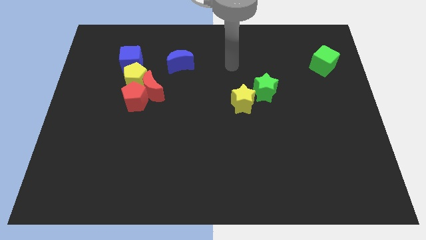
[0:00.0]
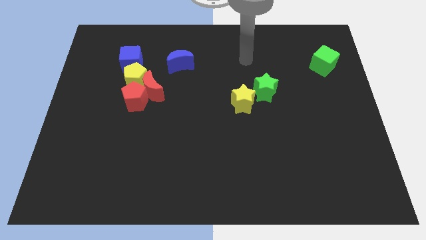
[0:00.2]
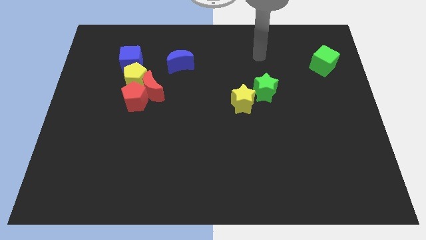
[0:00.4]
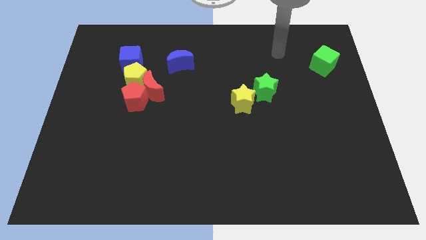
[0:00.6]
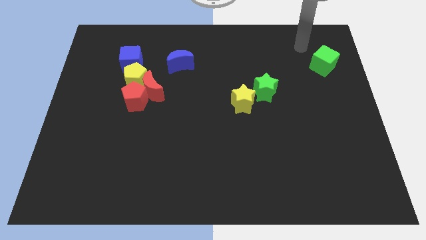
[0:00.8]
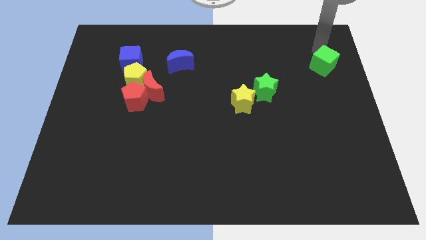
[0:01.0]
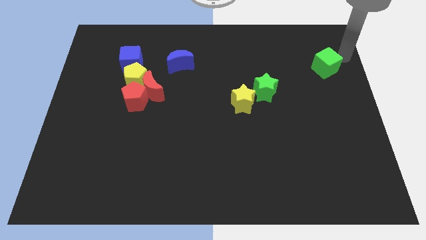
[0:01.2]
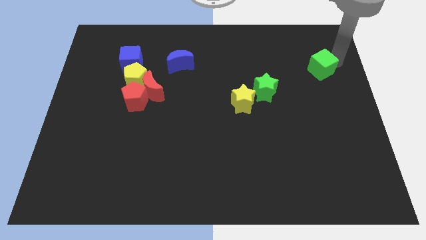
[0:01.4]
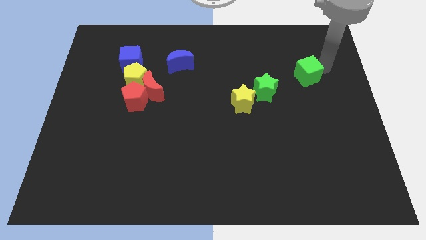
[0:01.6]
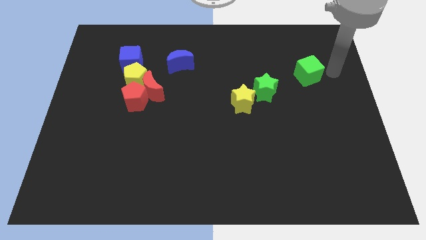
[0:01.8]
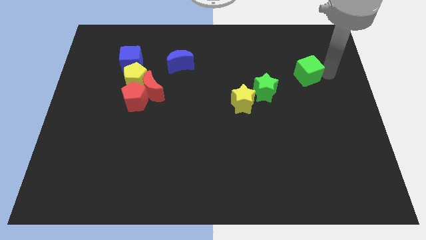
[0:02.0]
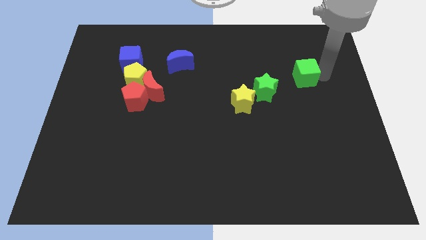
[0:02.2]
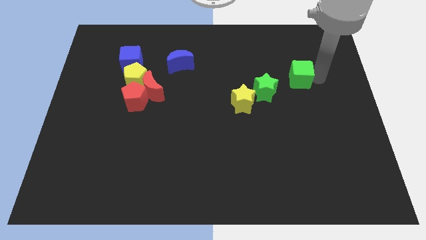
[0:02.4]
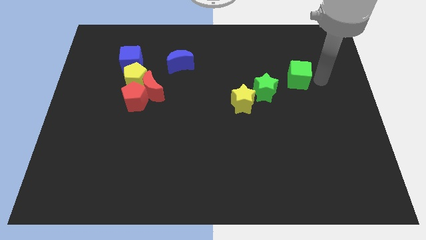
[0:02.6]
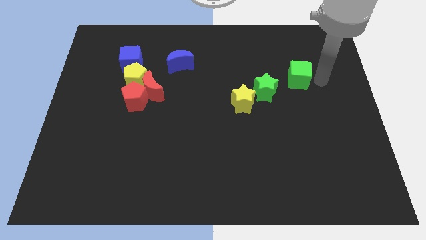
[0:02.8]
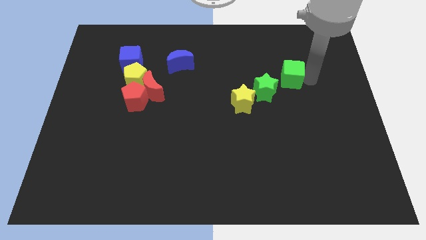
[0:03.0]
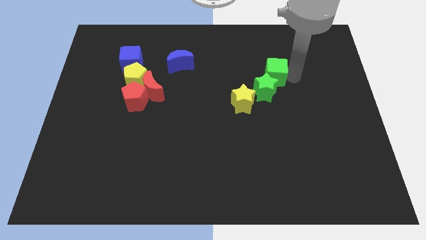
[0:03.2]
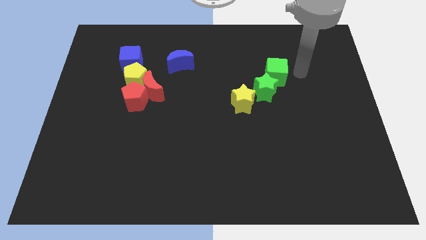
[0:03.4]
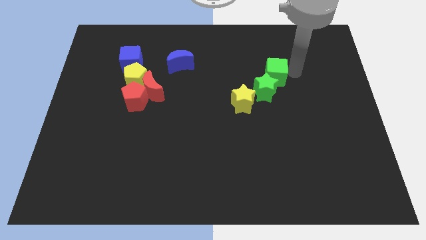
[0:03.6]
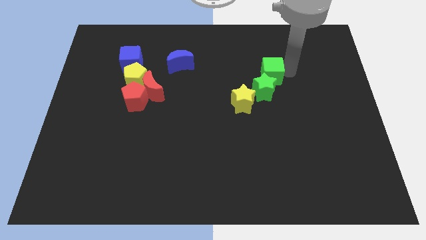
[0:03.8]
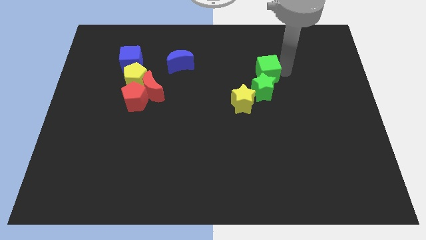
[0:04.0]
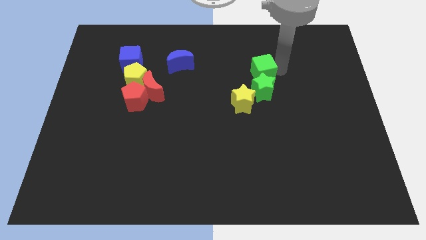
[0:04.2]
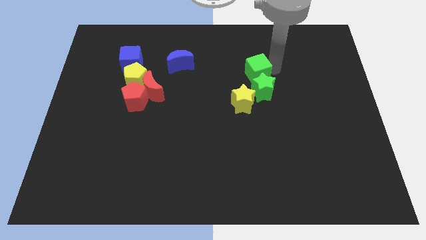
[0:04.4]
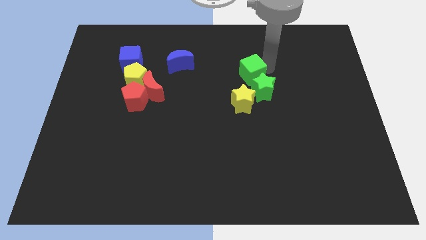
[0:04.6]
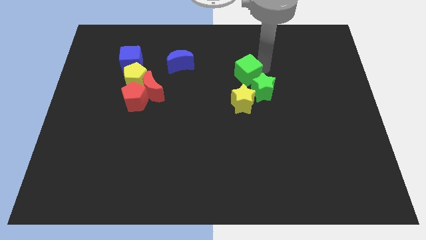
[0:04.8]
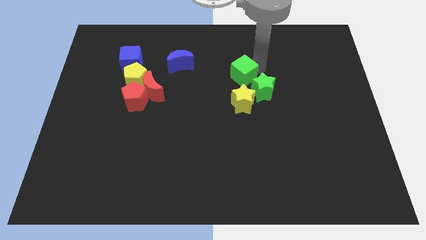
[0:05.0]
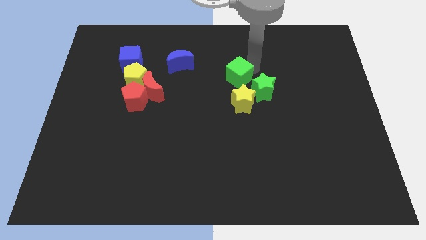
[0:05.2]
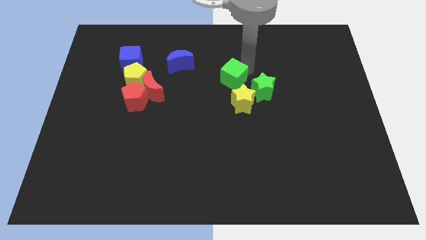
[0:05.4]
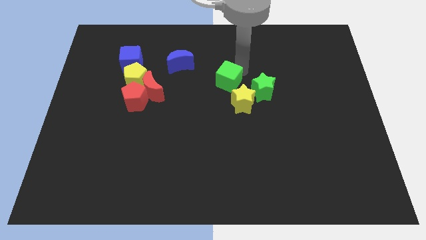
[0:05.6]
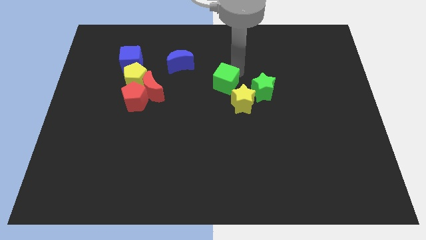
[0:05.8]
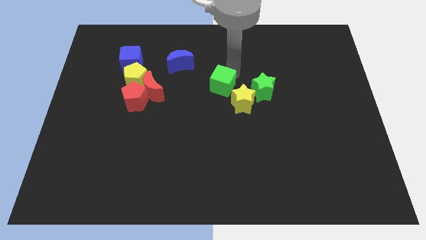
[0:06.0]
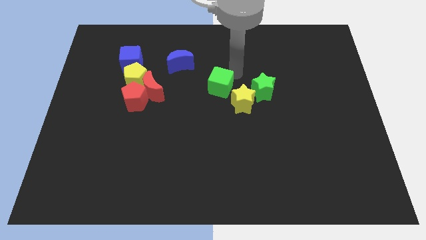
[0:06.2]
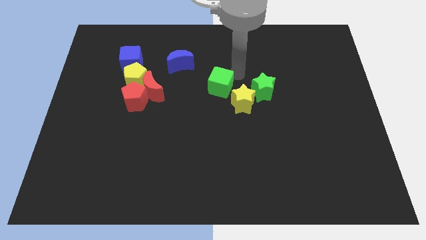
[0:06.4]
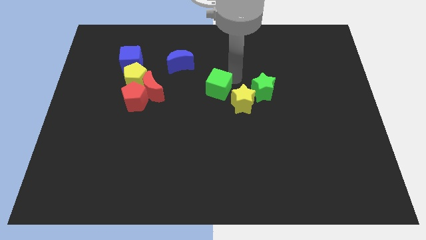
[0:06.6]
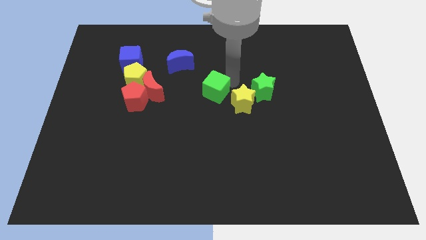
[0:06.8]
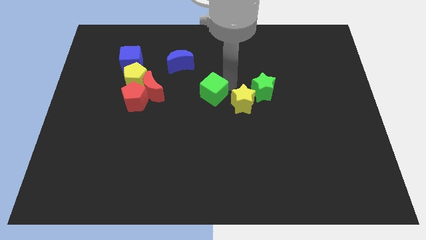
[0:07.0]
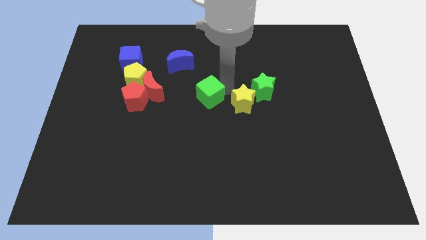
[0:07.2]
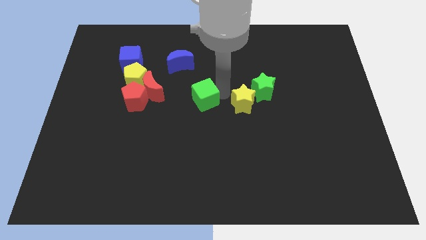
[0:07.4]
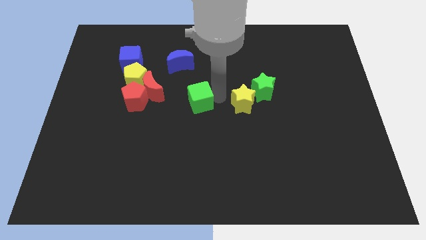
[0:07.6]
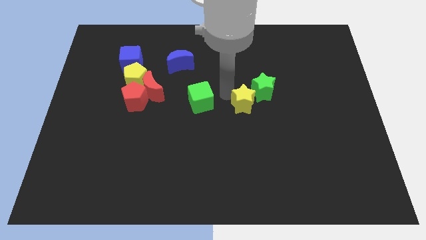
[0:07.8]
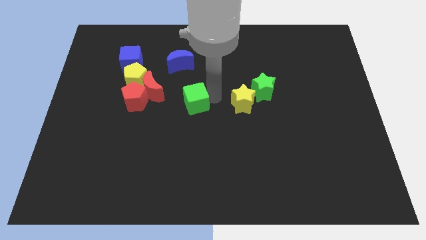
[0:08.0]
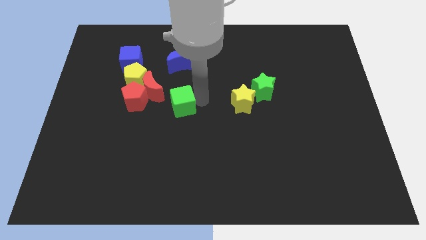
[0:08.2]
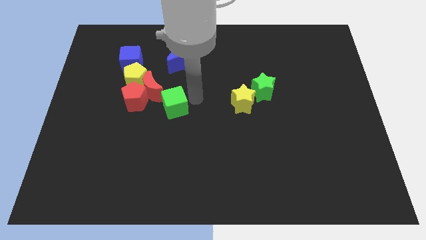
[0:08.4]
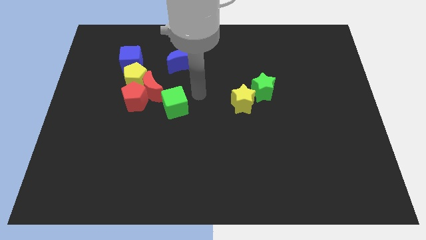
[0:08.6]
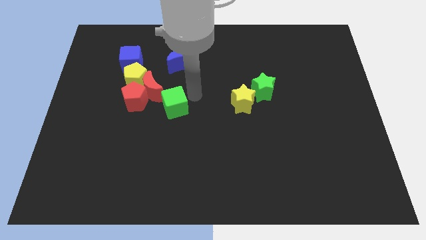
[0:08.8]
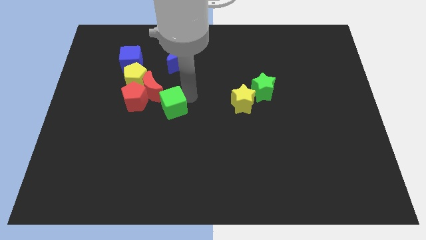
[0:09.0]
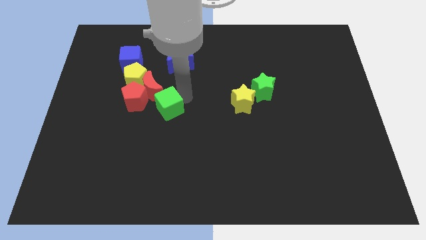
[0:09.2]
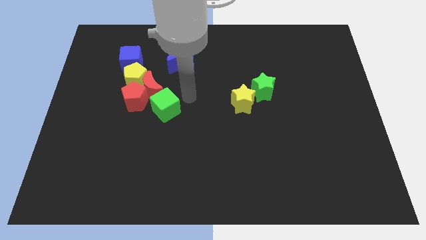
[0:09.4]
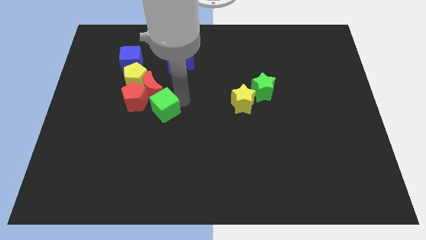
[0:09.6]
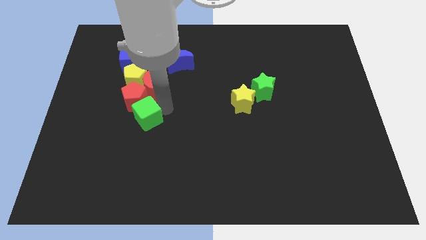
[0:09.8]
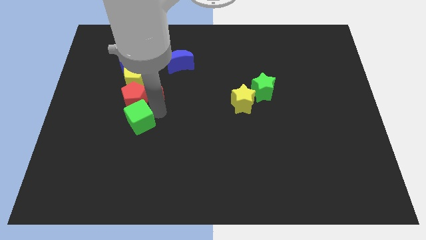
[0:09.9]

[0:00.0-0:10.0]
slide the green cube to the bottom left side of the red moon

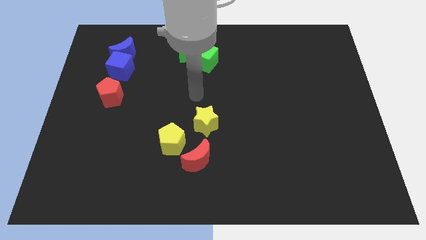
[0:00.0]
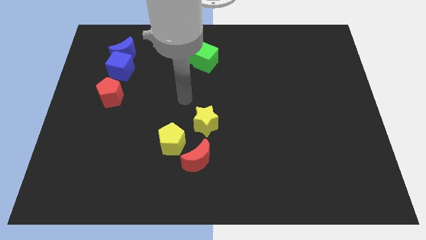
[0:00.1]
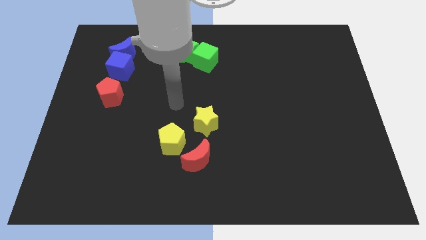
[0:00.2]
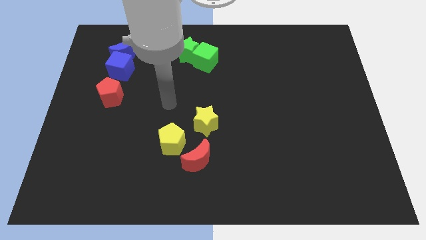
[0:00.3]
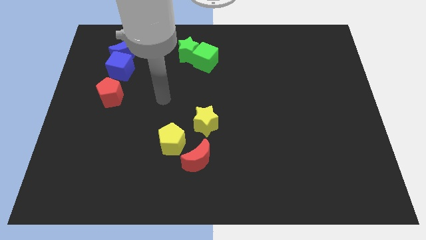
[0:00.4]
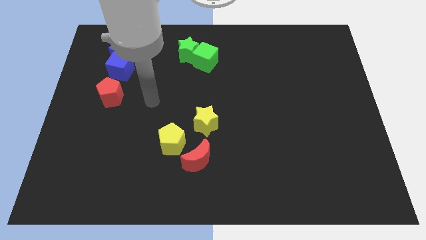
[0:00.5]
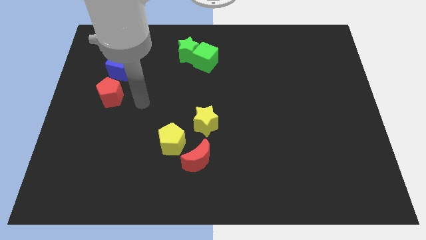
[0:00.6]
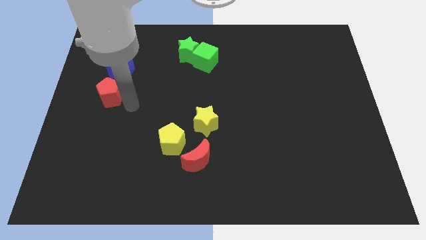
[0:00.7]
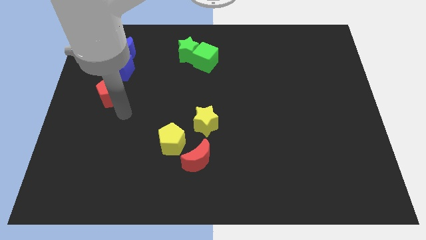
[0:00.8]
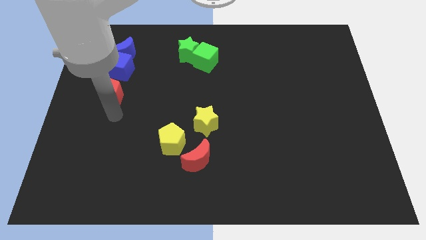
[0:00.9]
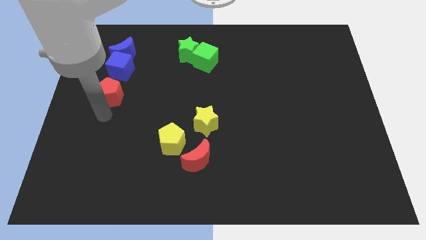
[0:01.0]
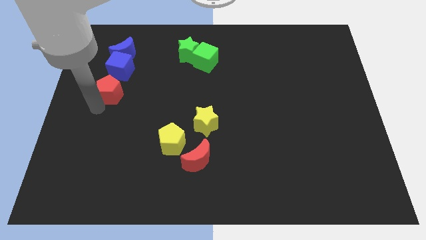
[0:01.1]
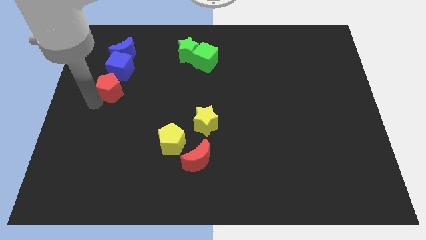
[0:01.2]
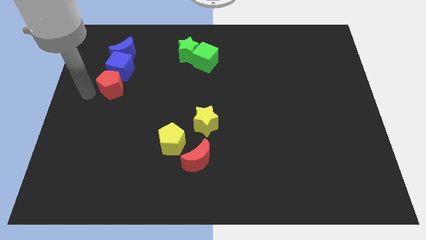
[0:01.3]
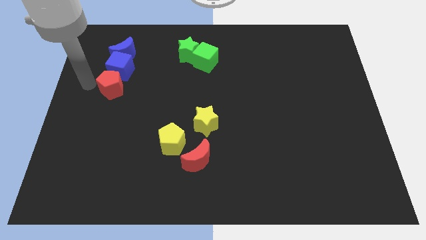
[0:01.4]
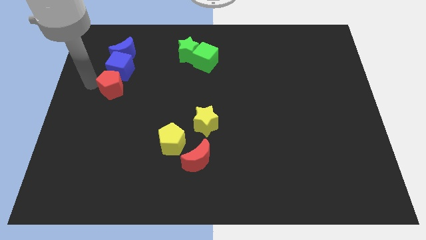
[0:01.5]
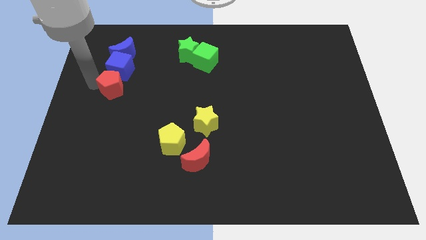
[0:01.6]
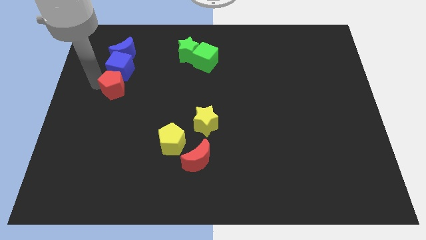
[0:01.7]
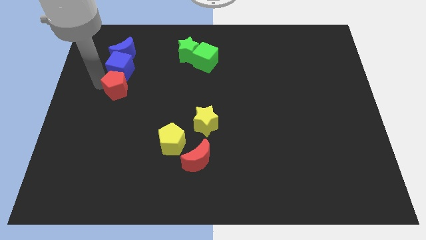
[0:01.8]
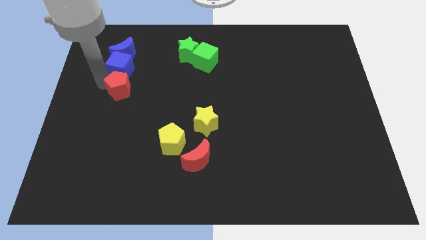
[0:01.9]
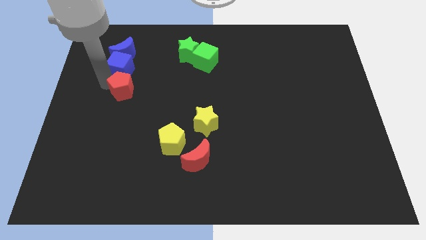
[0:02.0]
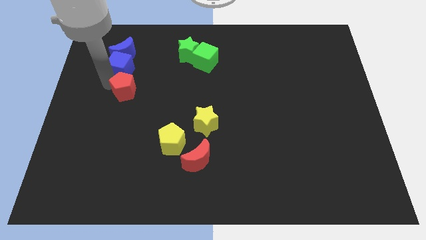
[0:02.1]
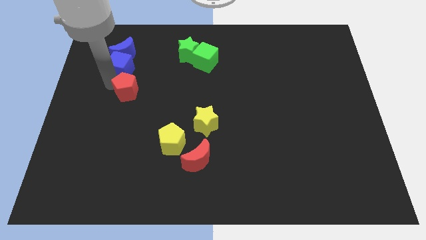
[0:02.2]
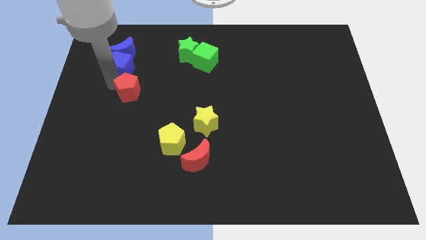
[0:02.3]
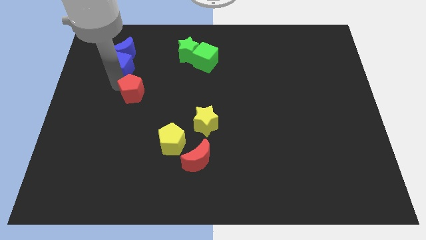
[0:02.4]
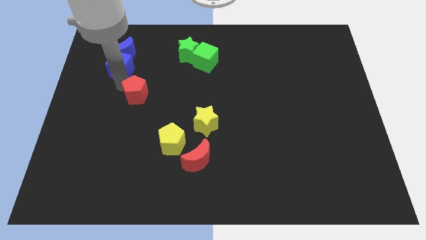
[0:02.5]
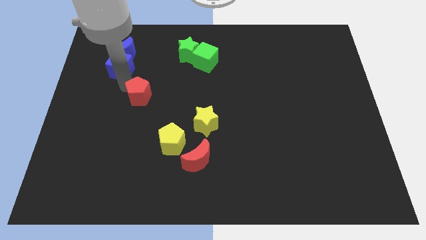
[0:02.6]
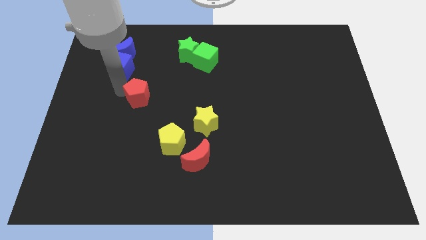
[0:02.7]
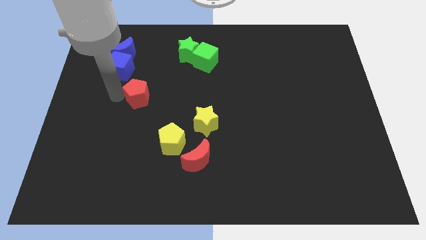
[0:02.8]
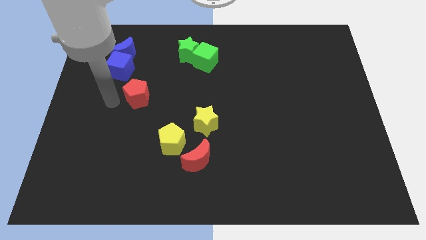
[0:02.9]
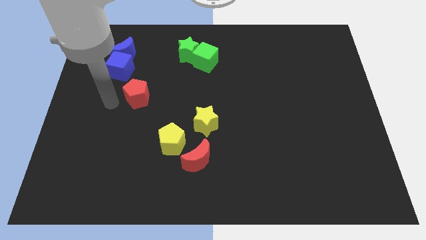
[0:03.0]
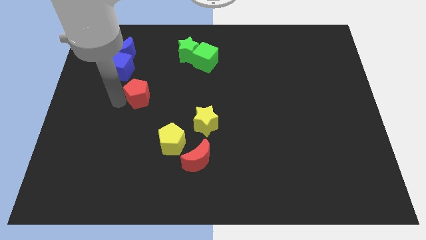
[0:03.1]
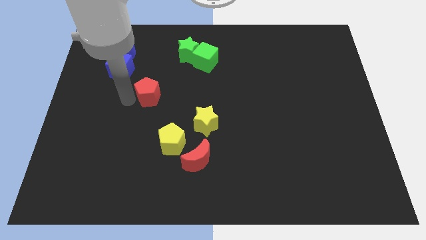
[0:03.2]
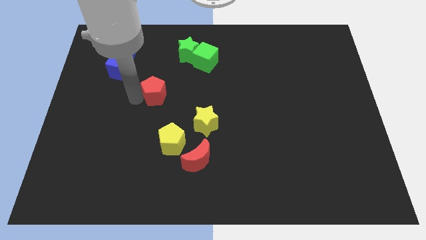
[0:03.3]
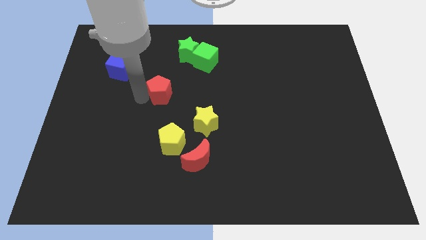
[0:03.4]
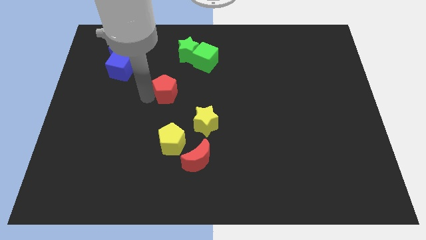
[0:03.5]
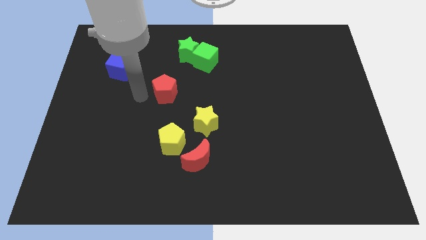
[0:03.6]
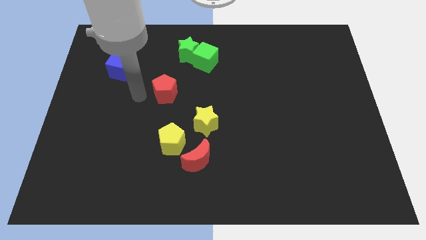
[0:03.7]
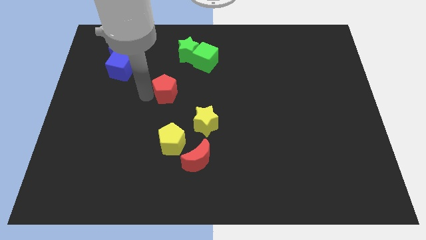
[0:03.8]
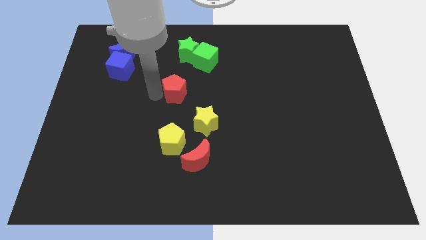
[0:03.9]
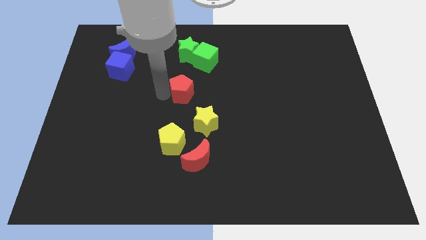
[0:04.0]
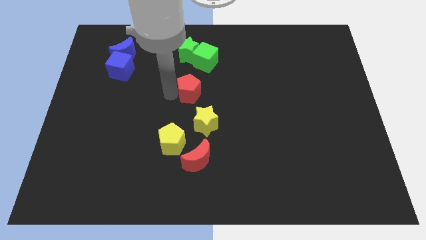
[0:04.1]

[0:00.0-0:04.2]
put the red pentagon to the top of the yellow star
